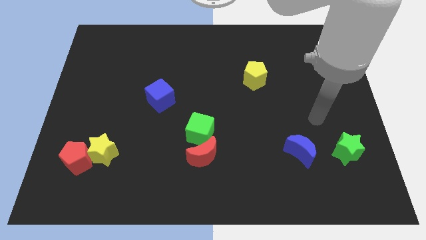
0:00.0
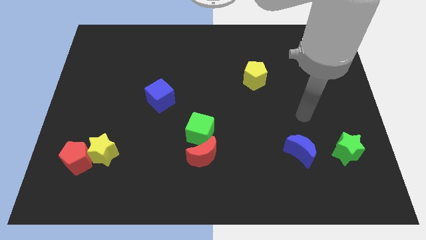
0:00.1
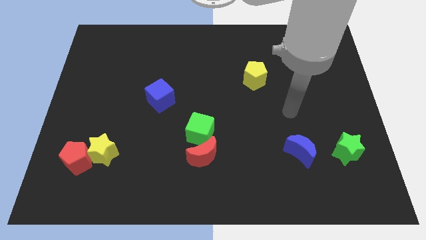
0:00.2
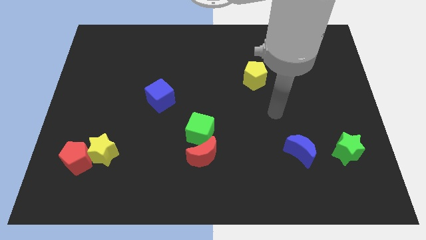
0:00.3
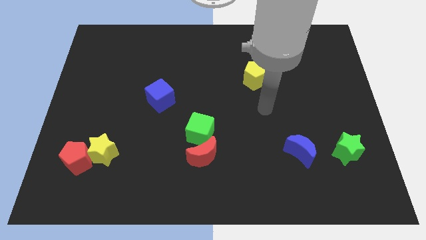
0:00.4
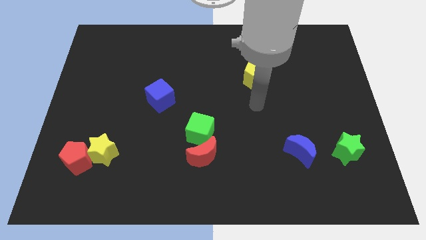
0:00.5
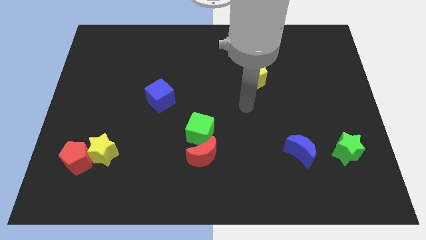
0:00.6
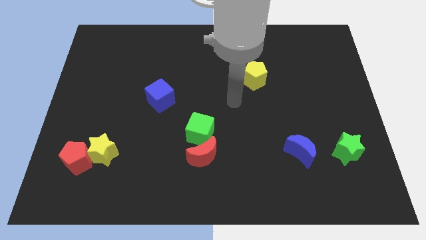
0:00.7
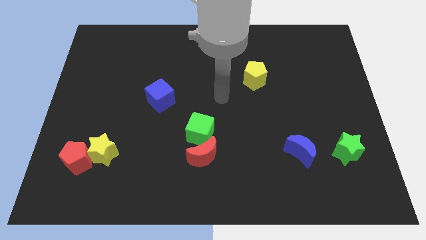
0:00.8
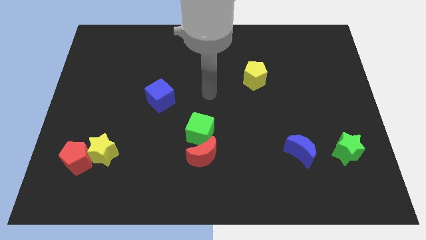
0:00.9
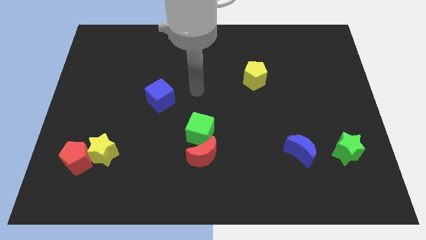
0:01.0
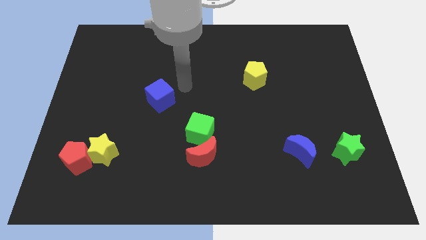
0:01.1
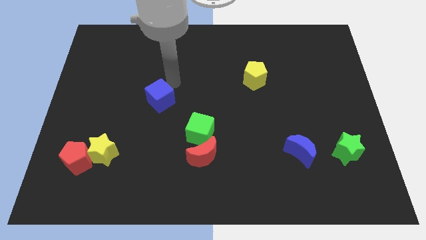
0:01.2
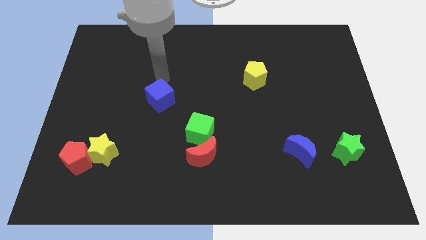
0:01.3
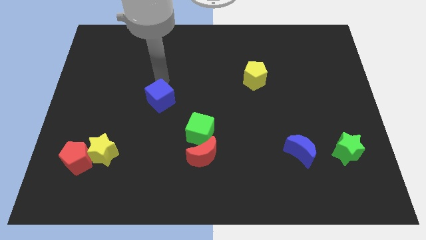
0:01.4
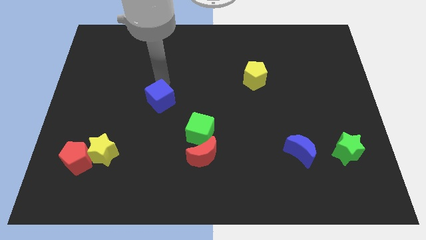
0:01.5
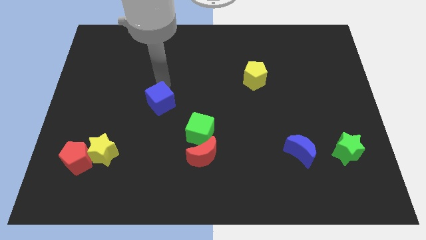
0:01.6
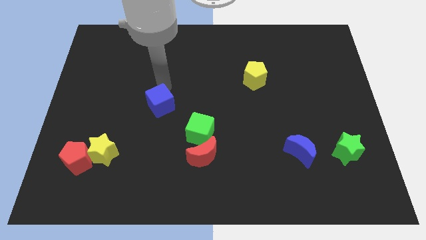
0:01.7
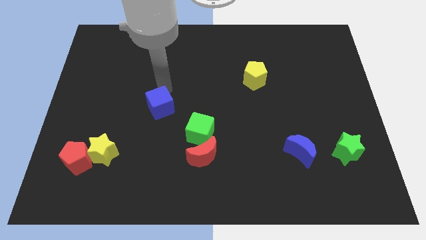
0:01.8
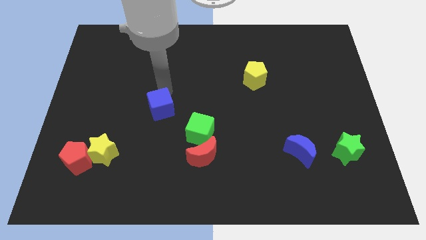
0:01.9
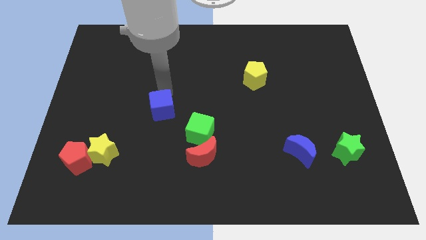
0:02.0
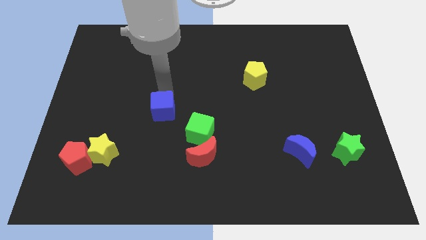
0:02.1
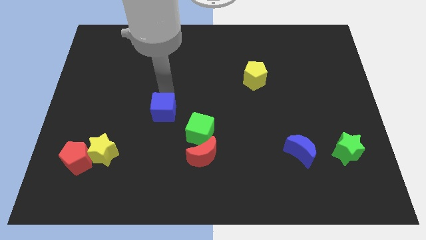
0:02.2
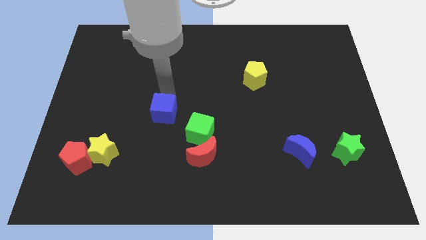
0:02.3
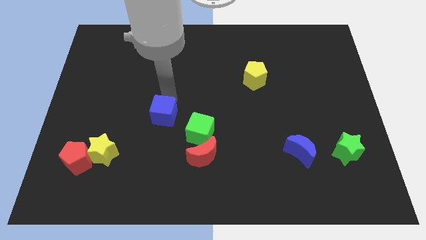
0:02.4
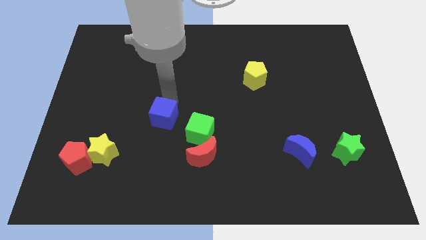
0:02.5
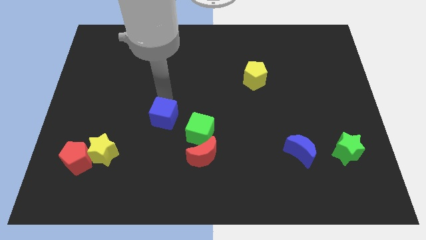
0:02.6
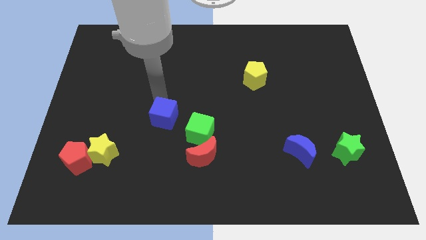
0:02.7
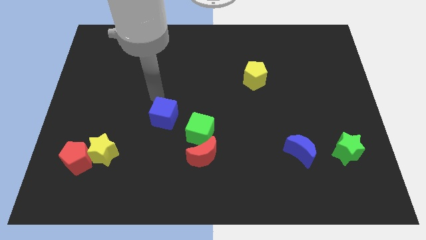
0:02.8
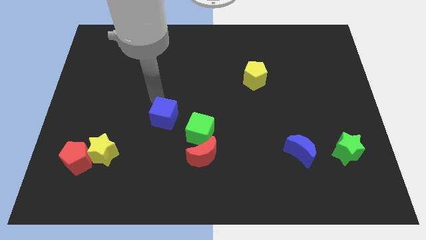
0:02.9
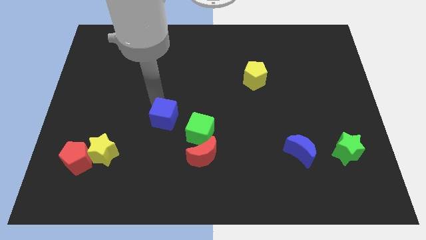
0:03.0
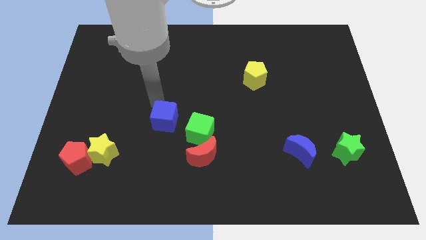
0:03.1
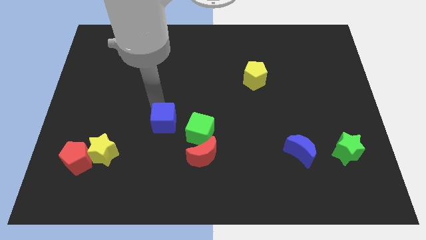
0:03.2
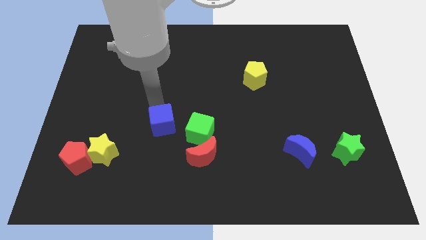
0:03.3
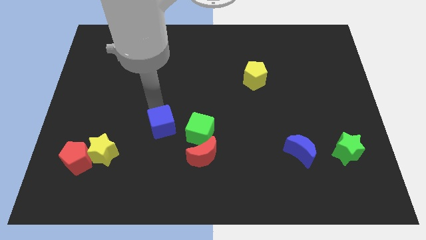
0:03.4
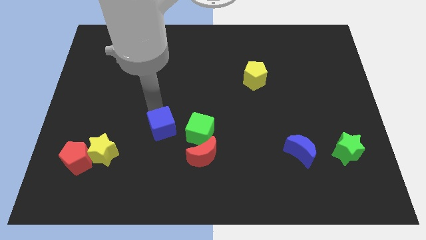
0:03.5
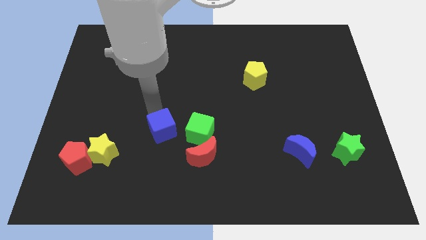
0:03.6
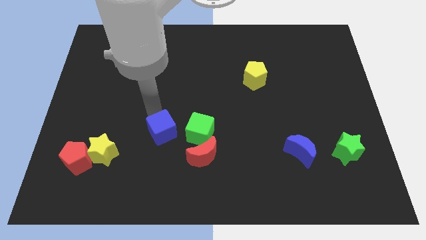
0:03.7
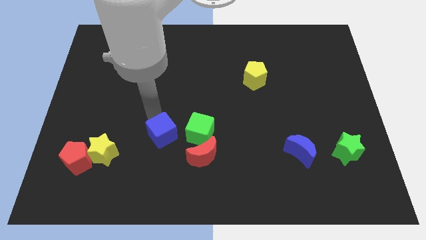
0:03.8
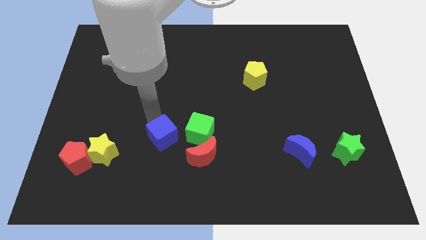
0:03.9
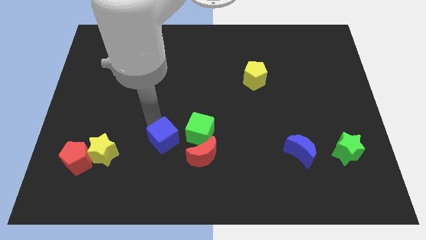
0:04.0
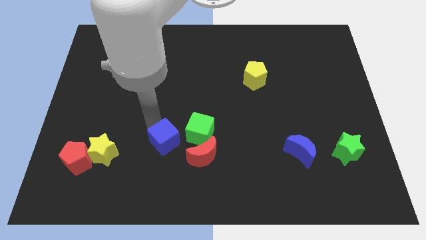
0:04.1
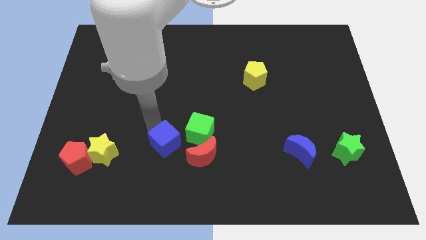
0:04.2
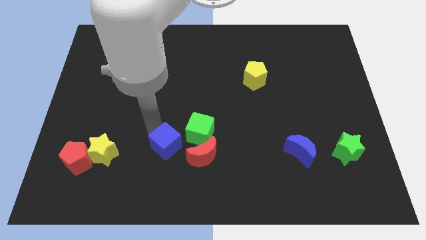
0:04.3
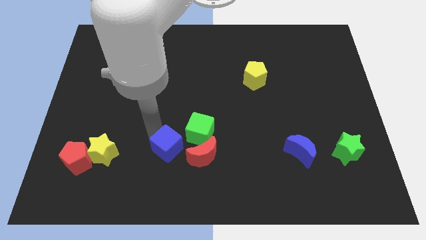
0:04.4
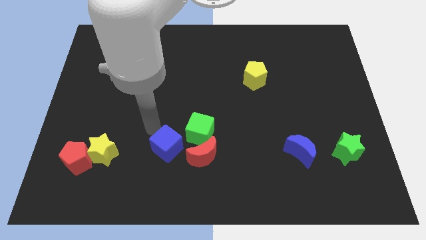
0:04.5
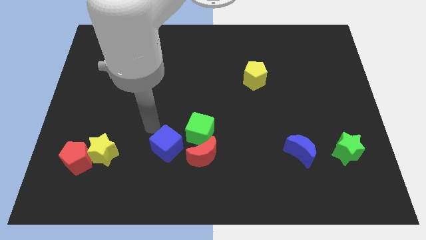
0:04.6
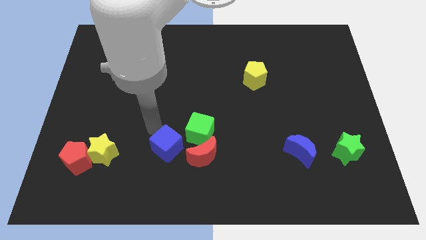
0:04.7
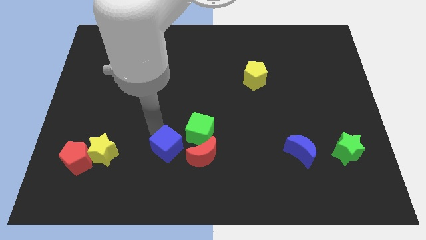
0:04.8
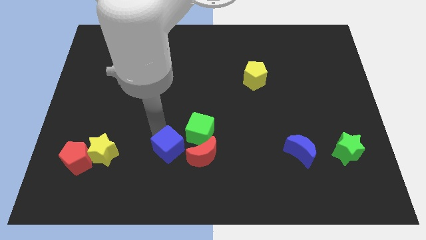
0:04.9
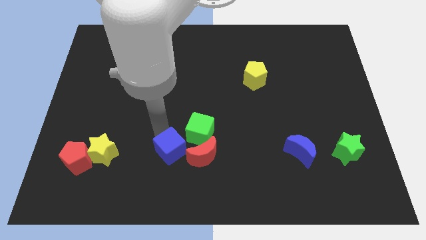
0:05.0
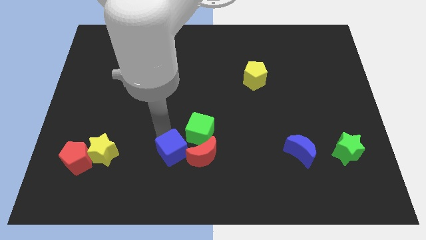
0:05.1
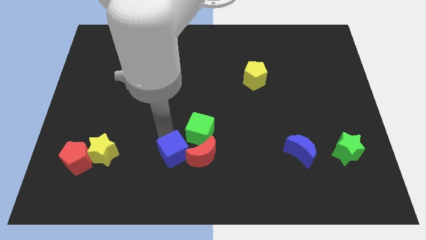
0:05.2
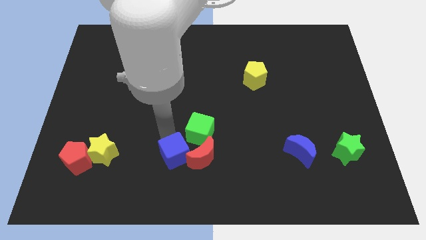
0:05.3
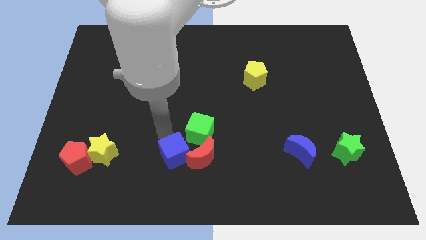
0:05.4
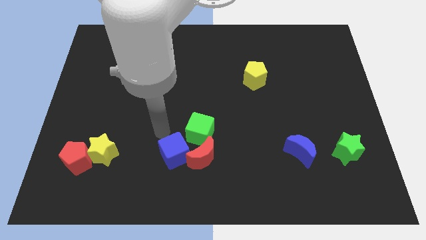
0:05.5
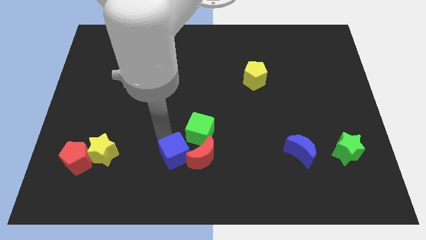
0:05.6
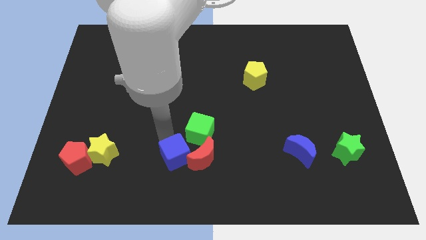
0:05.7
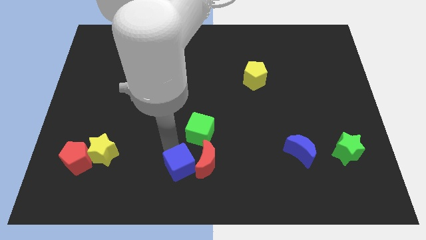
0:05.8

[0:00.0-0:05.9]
put the blue cube to the bottom side

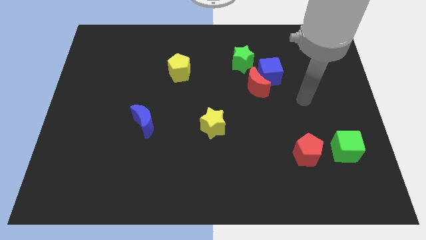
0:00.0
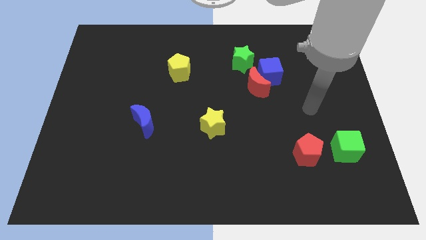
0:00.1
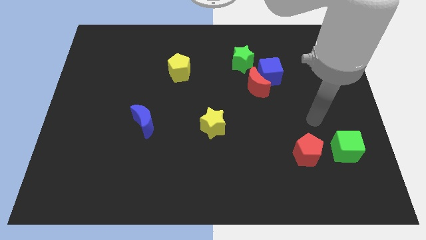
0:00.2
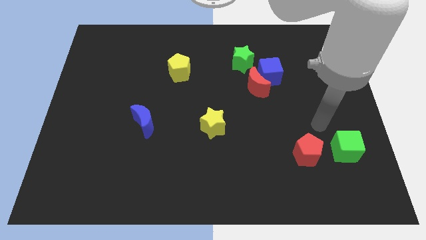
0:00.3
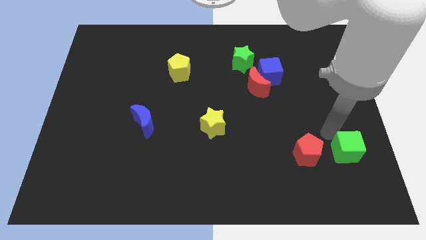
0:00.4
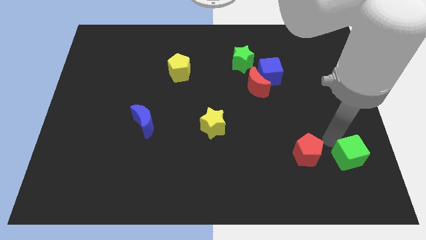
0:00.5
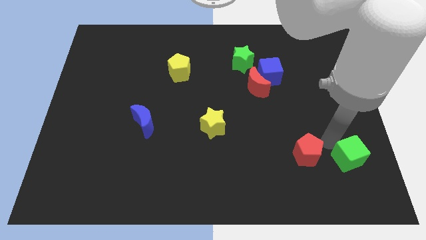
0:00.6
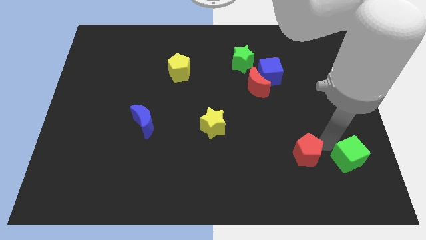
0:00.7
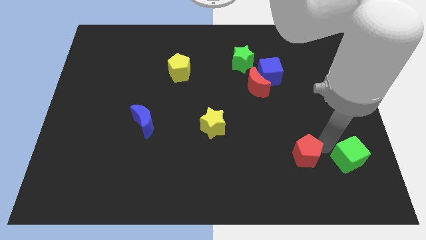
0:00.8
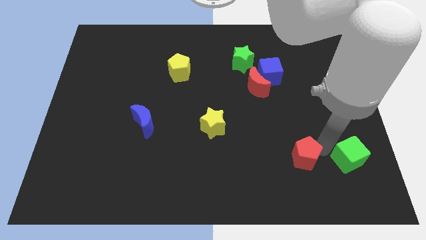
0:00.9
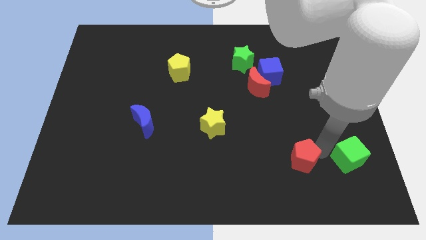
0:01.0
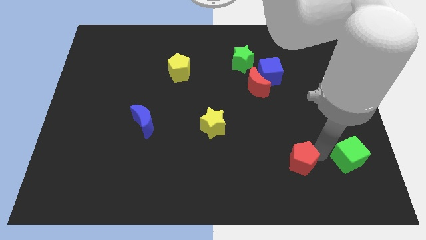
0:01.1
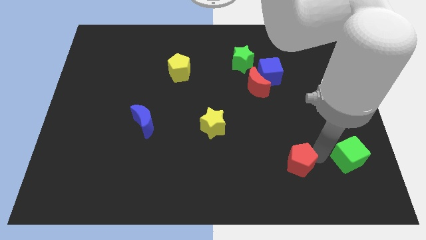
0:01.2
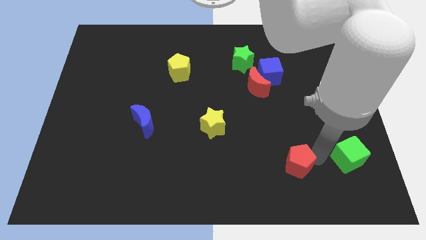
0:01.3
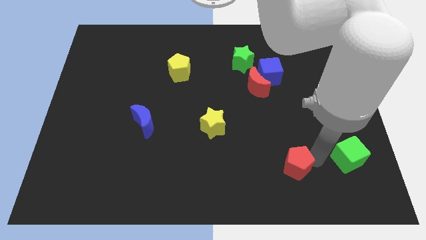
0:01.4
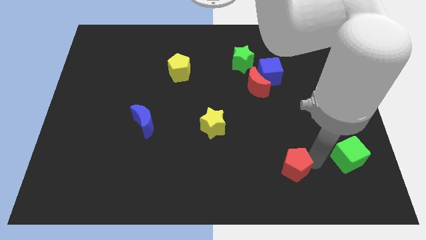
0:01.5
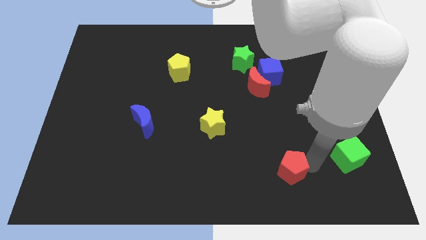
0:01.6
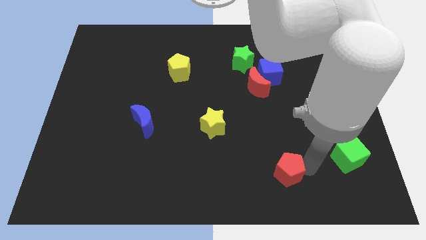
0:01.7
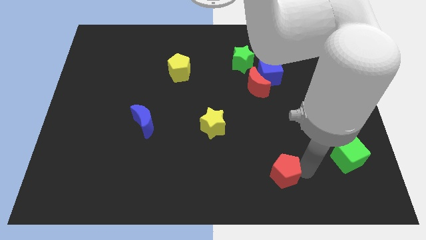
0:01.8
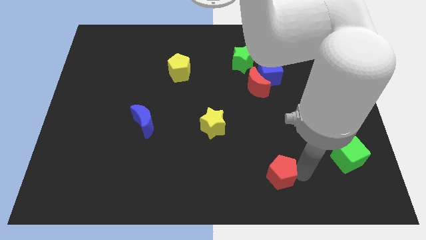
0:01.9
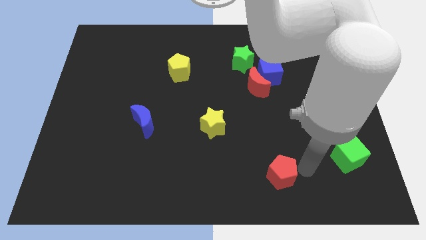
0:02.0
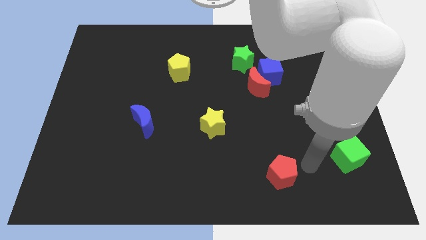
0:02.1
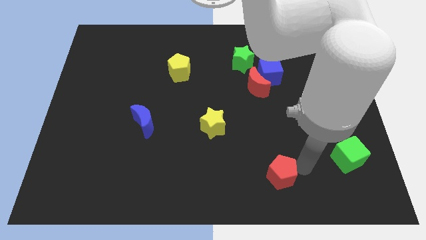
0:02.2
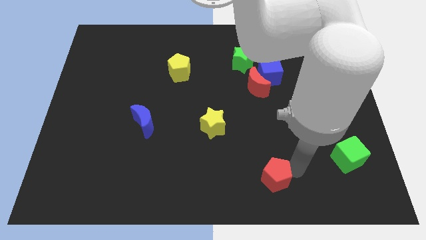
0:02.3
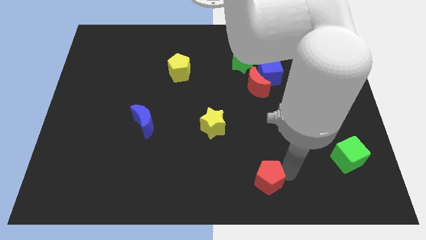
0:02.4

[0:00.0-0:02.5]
move the red pentagon to the bottom side
